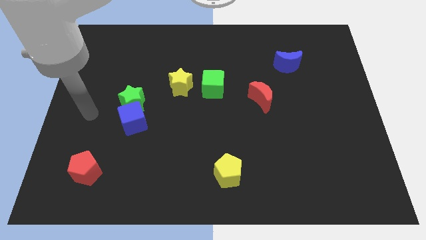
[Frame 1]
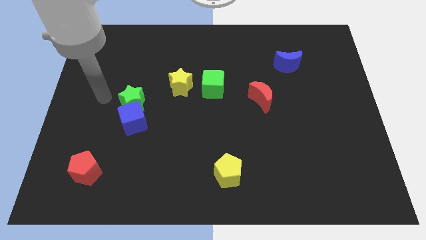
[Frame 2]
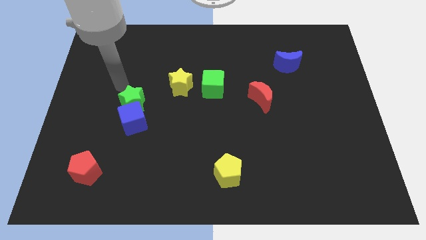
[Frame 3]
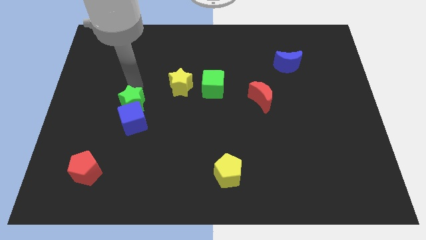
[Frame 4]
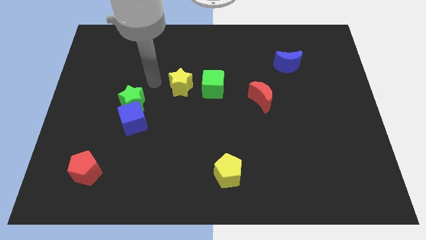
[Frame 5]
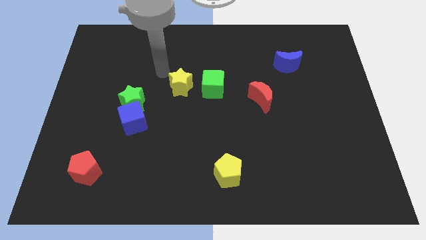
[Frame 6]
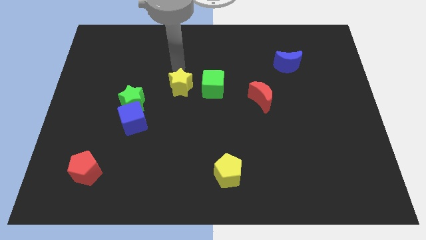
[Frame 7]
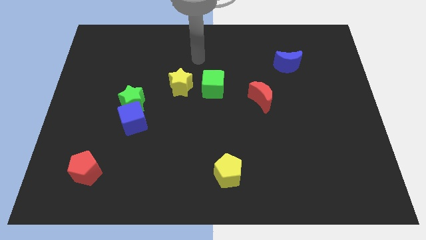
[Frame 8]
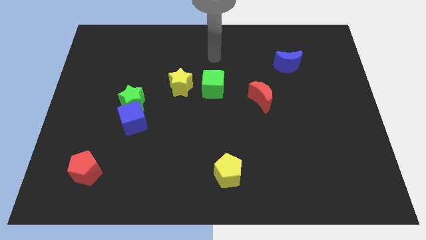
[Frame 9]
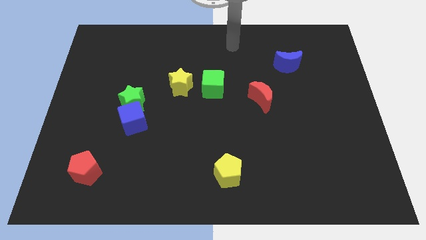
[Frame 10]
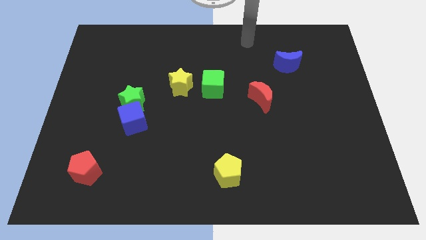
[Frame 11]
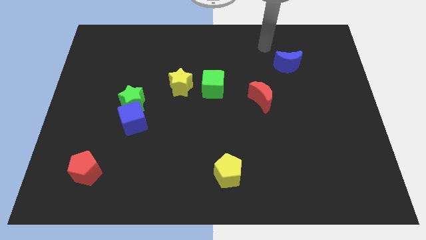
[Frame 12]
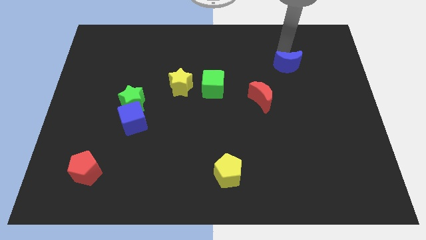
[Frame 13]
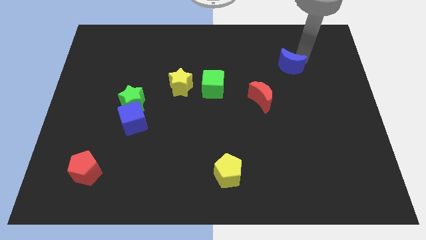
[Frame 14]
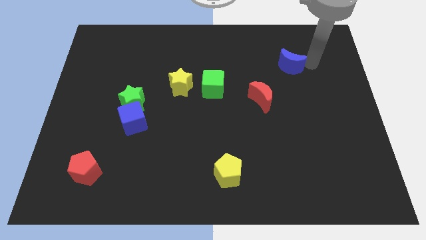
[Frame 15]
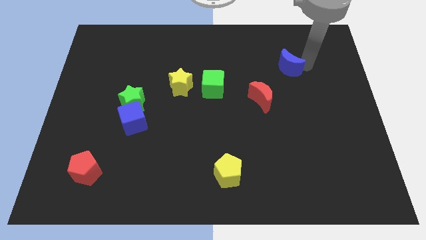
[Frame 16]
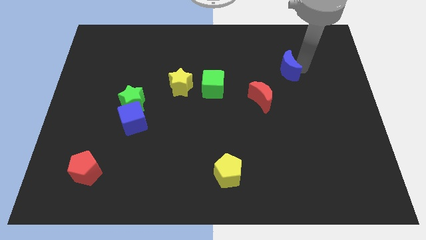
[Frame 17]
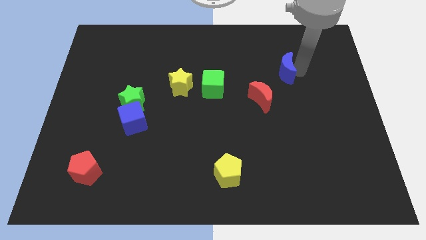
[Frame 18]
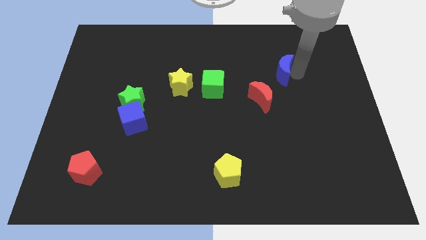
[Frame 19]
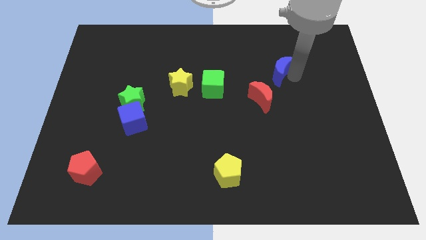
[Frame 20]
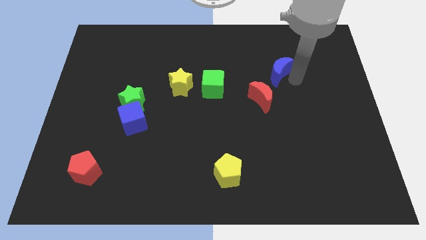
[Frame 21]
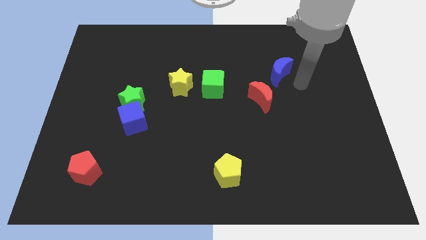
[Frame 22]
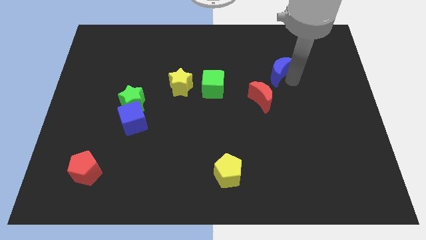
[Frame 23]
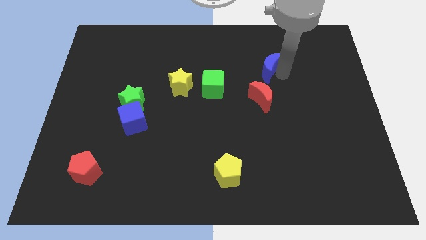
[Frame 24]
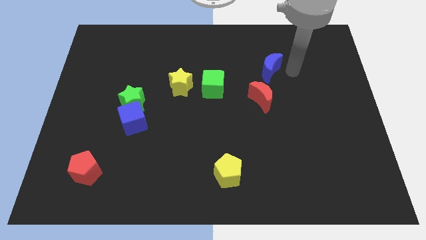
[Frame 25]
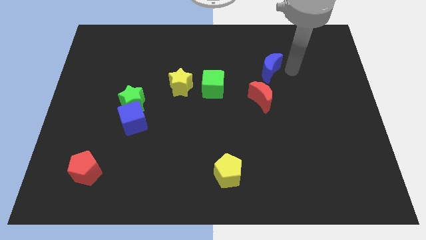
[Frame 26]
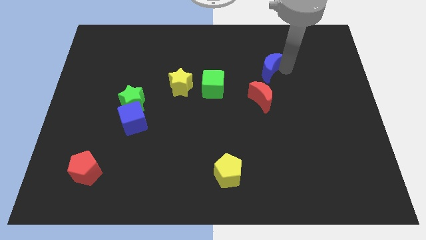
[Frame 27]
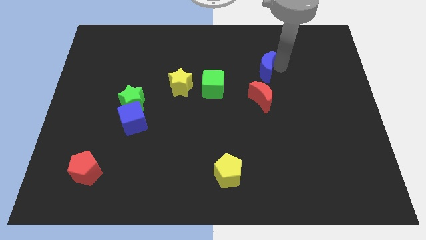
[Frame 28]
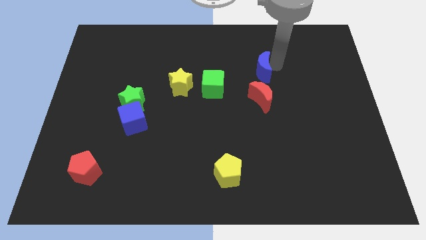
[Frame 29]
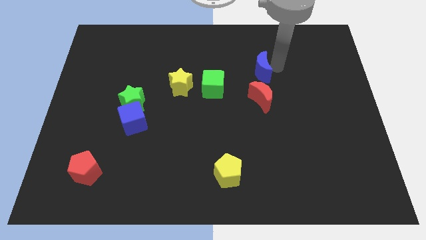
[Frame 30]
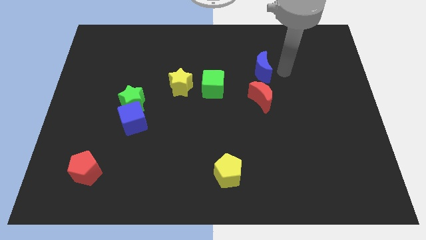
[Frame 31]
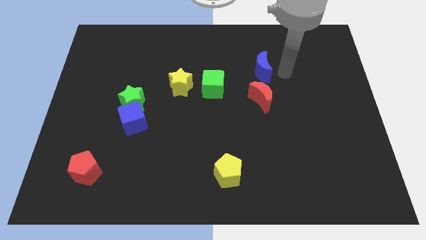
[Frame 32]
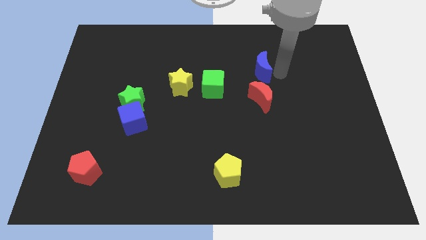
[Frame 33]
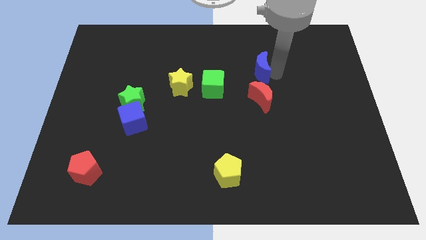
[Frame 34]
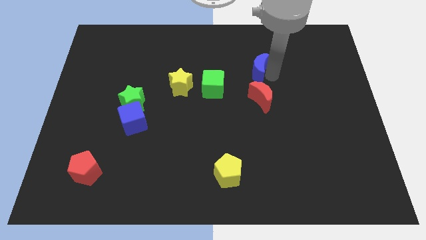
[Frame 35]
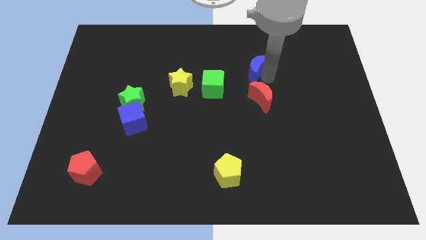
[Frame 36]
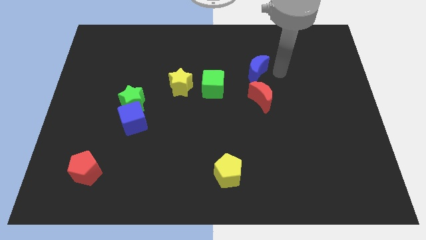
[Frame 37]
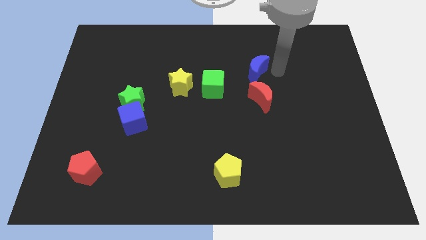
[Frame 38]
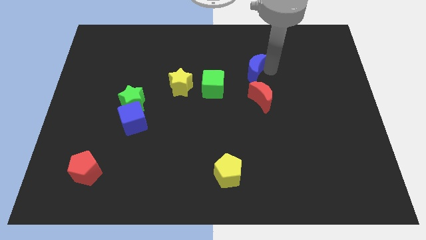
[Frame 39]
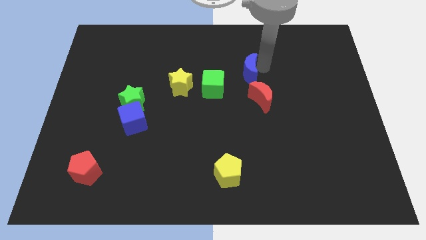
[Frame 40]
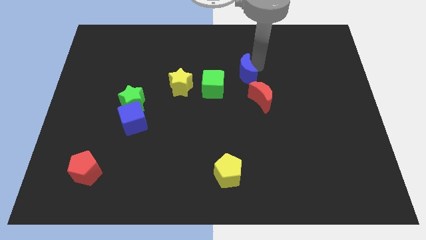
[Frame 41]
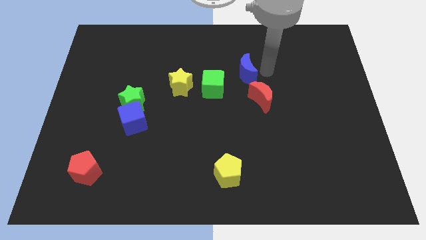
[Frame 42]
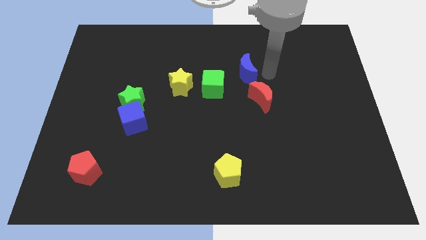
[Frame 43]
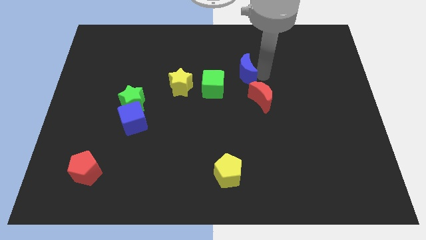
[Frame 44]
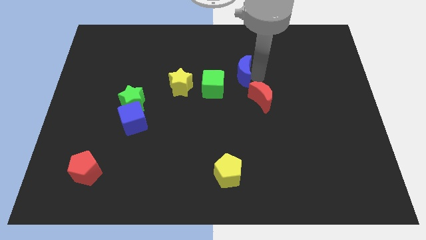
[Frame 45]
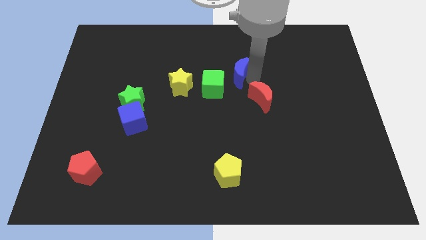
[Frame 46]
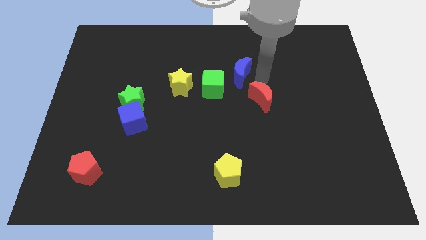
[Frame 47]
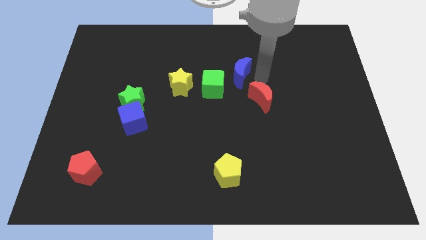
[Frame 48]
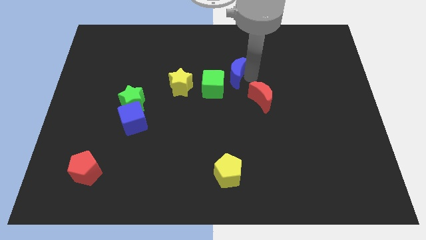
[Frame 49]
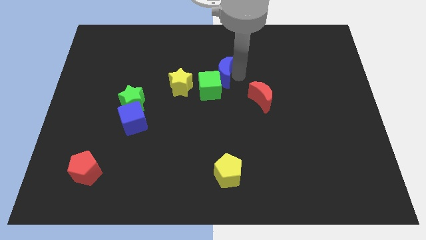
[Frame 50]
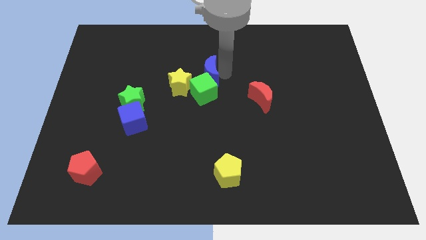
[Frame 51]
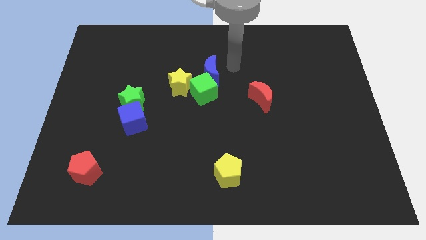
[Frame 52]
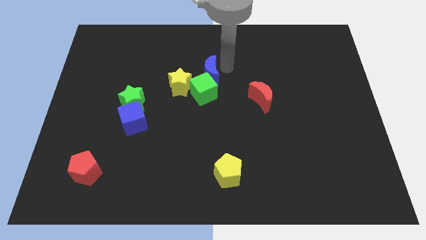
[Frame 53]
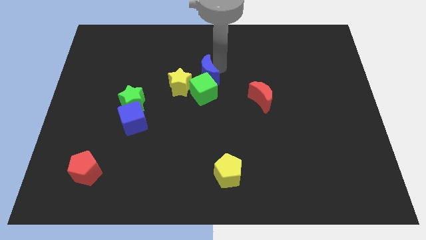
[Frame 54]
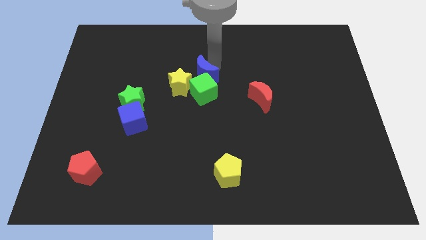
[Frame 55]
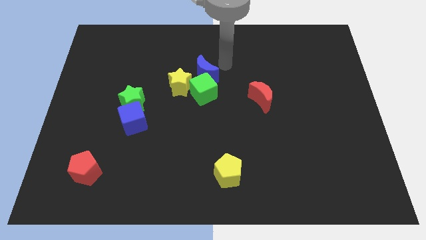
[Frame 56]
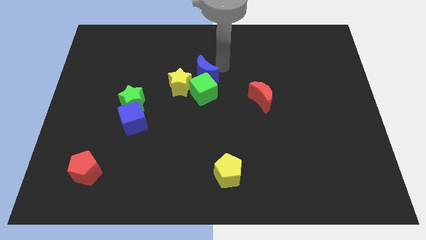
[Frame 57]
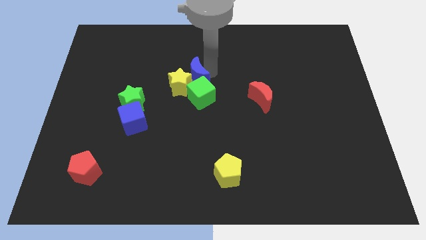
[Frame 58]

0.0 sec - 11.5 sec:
push the blue moon close to the yellow star

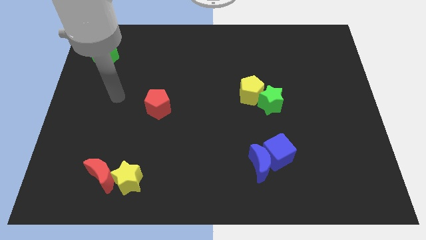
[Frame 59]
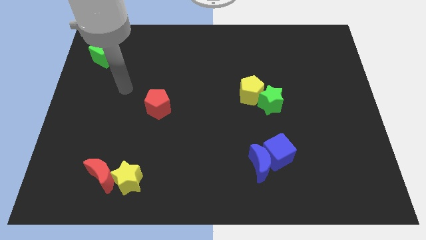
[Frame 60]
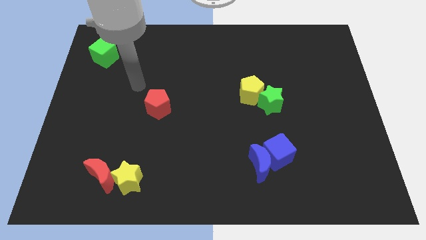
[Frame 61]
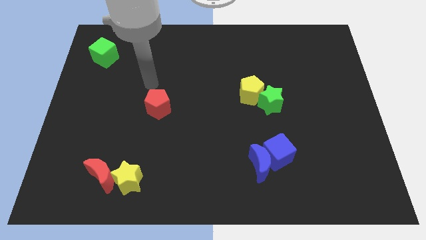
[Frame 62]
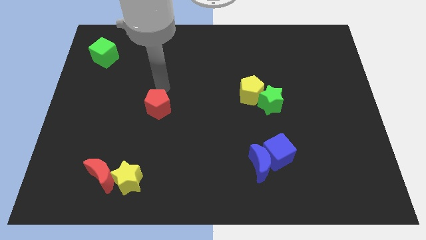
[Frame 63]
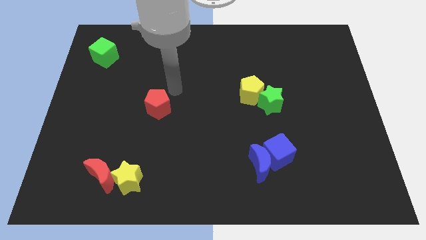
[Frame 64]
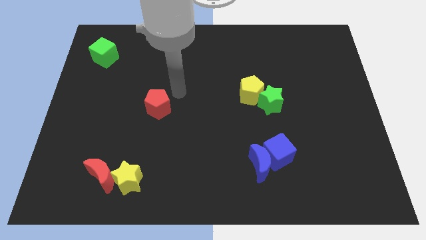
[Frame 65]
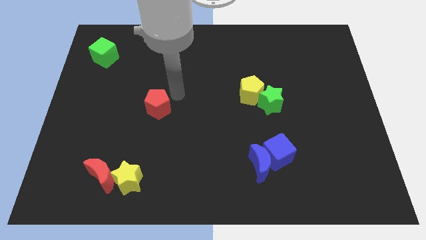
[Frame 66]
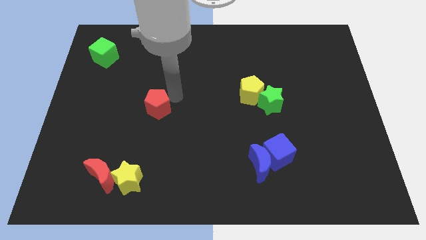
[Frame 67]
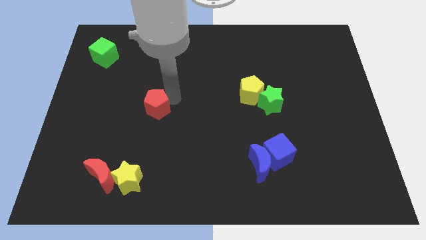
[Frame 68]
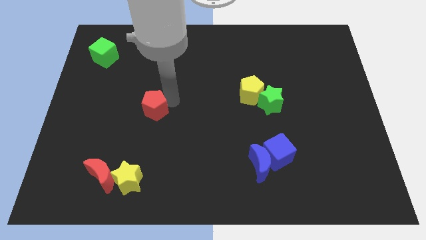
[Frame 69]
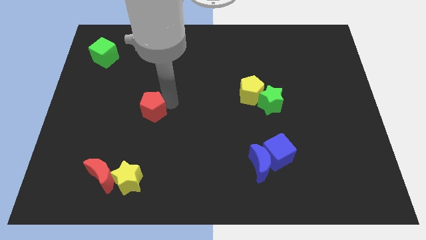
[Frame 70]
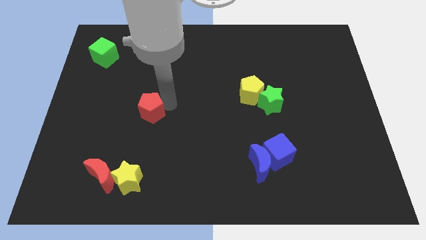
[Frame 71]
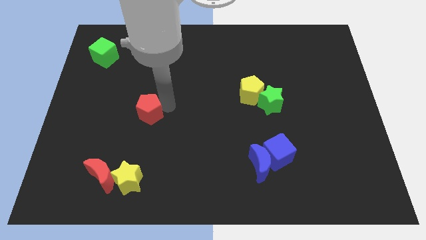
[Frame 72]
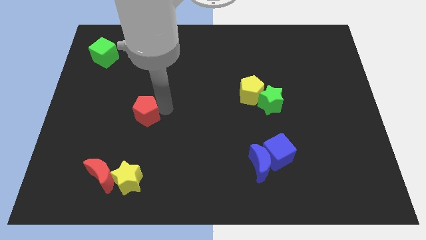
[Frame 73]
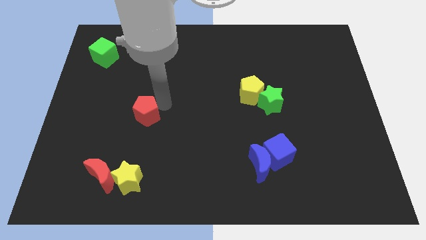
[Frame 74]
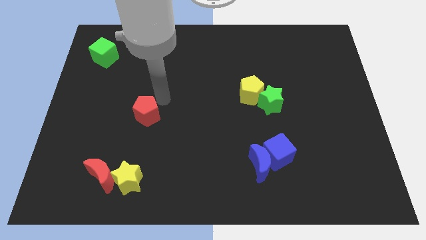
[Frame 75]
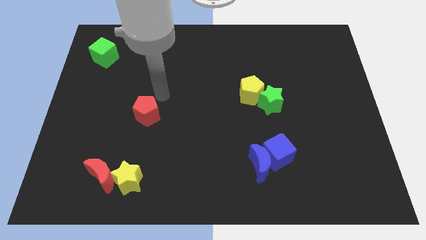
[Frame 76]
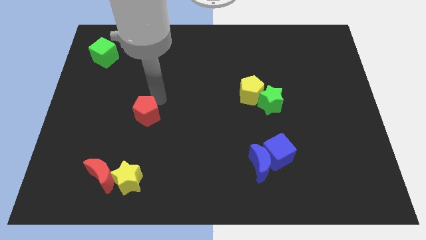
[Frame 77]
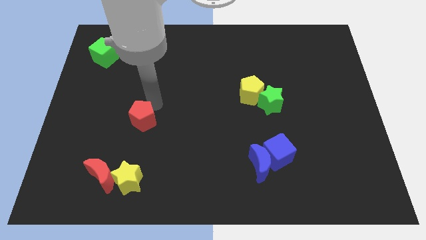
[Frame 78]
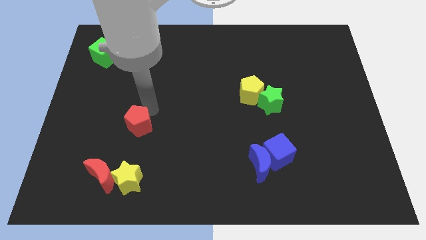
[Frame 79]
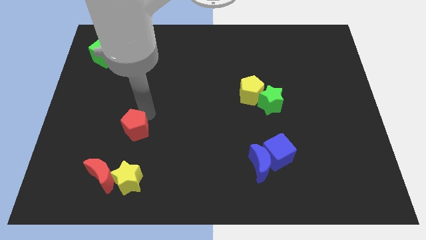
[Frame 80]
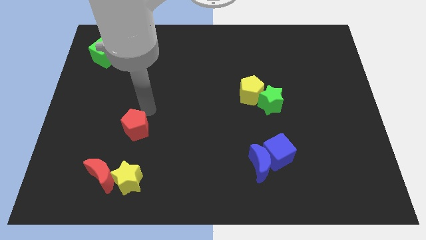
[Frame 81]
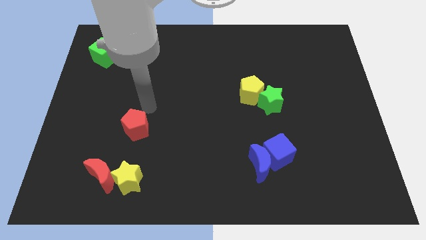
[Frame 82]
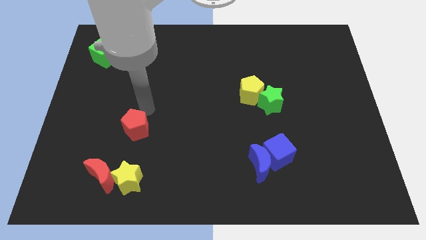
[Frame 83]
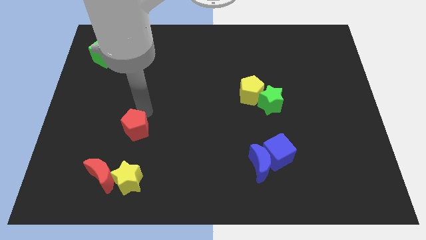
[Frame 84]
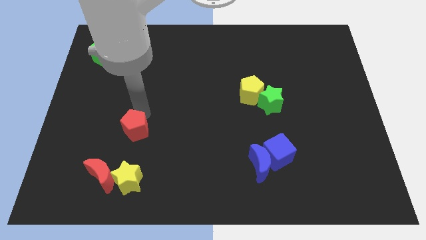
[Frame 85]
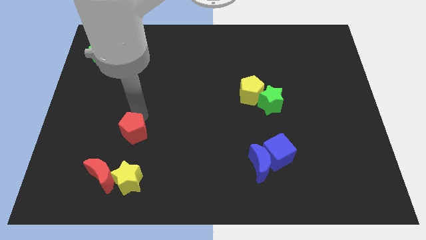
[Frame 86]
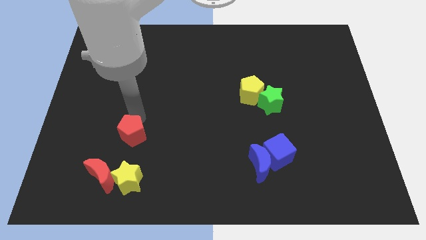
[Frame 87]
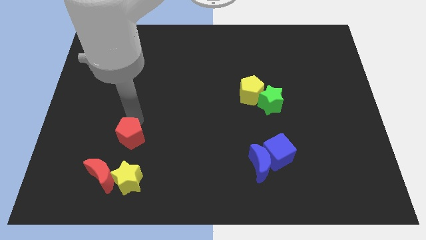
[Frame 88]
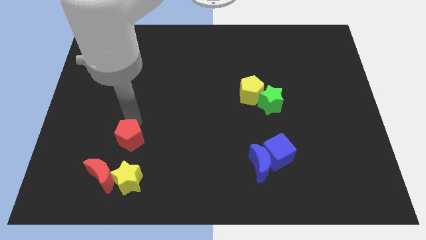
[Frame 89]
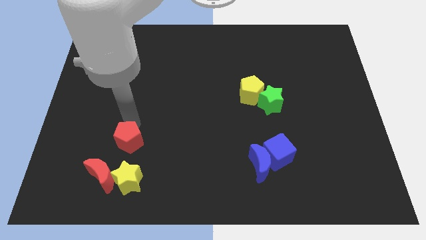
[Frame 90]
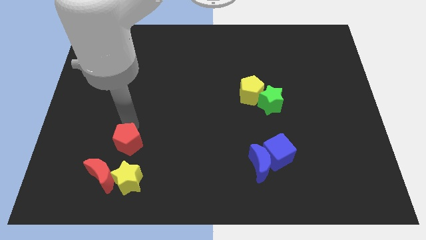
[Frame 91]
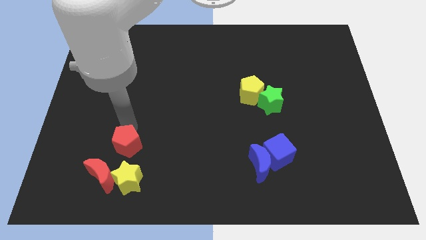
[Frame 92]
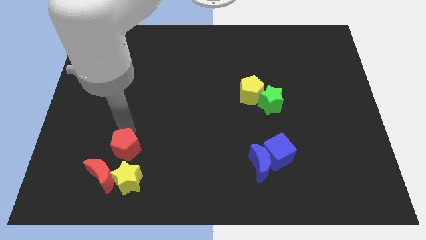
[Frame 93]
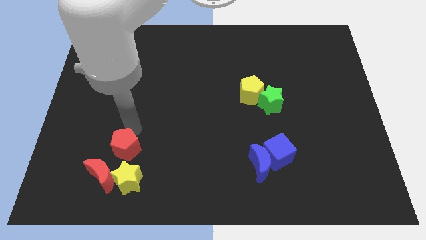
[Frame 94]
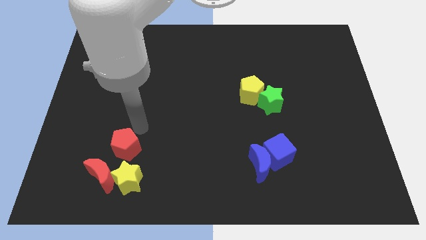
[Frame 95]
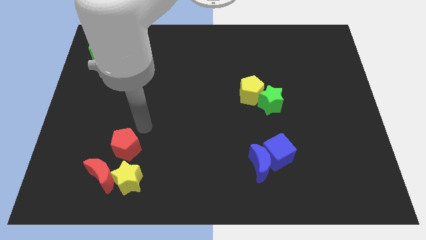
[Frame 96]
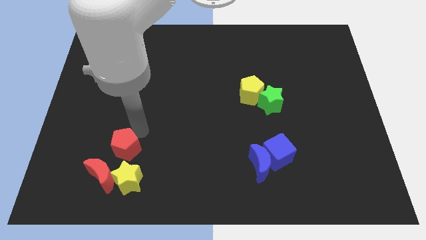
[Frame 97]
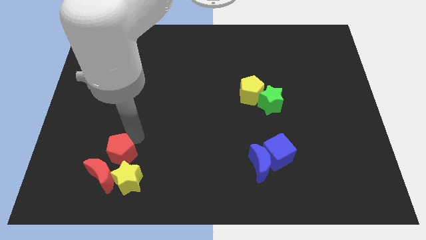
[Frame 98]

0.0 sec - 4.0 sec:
slide the red pentagon next to the red moon
